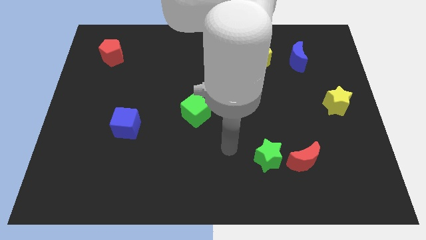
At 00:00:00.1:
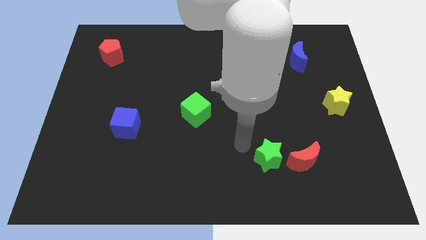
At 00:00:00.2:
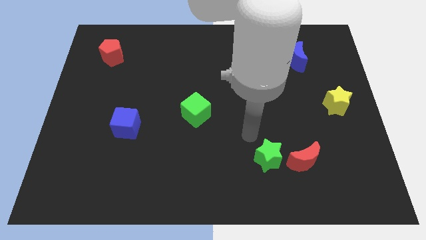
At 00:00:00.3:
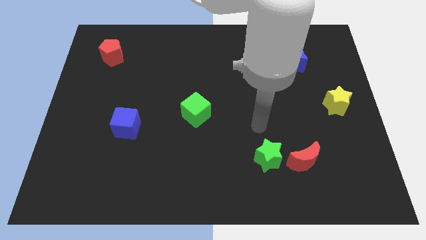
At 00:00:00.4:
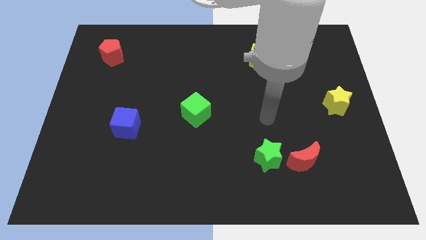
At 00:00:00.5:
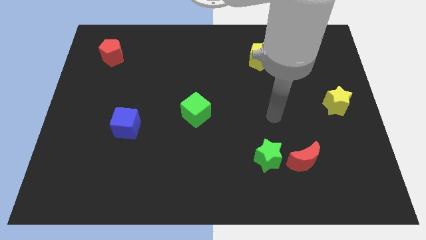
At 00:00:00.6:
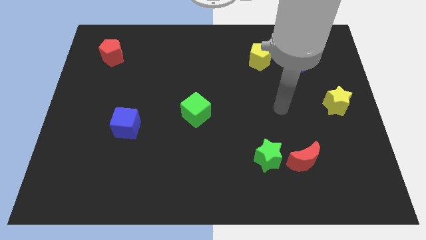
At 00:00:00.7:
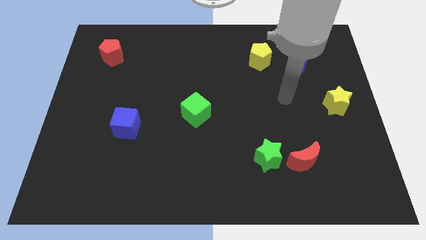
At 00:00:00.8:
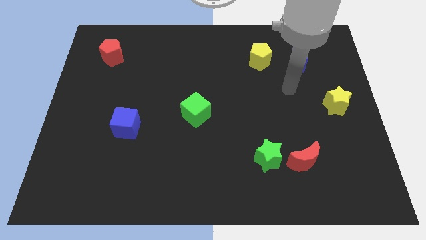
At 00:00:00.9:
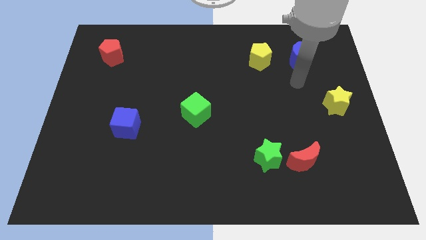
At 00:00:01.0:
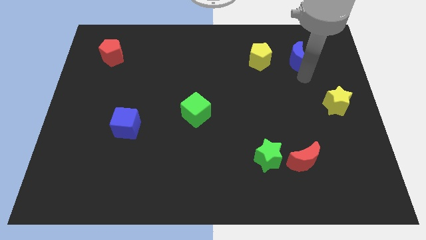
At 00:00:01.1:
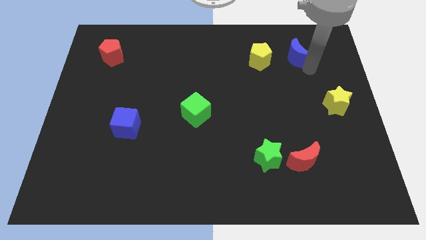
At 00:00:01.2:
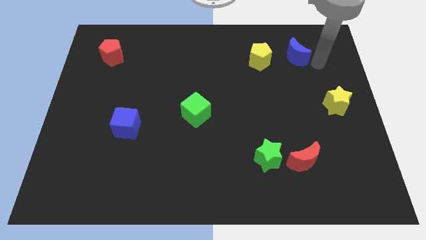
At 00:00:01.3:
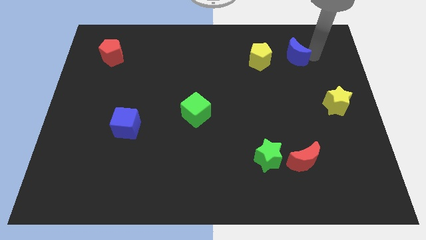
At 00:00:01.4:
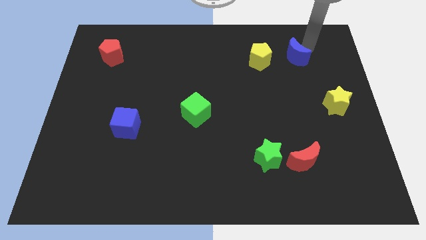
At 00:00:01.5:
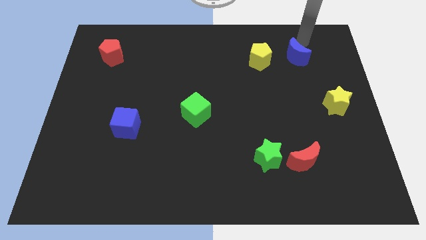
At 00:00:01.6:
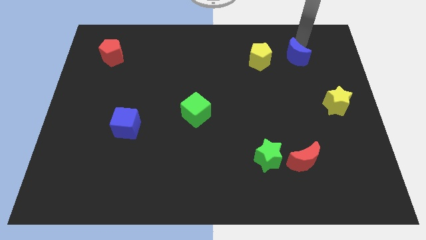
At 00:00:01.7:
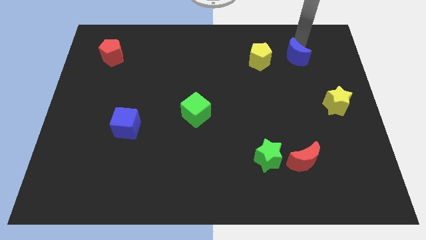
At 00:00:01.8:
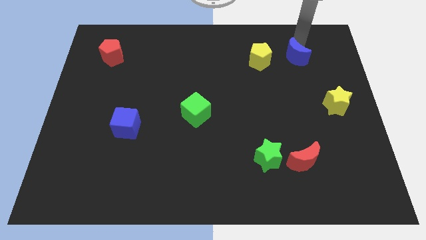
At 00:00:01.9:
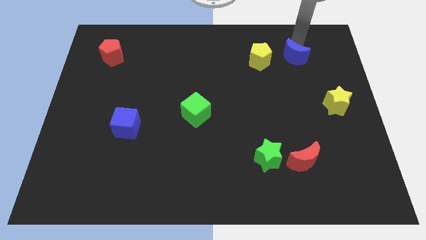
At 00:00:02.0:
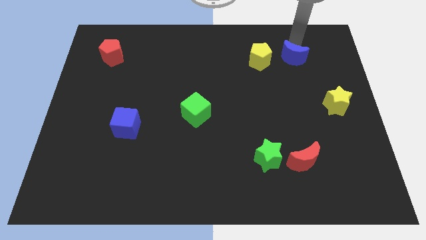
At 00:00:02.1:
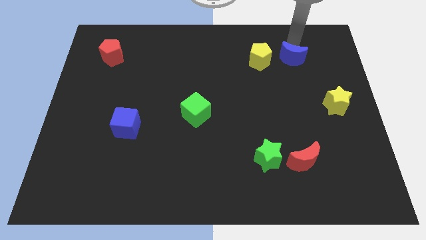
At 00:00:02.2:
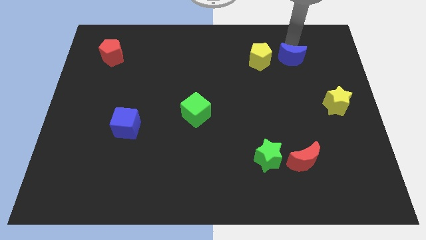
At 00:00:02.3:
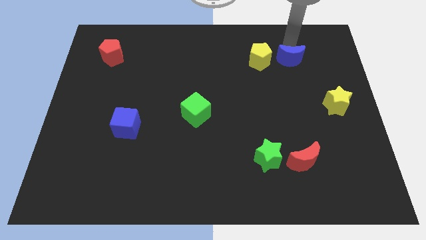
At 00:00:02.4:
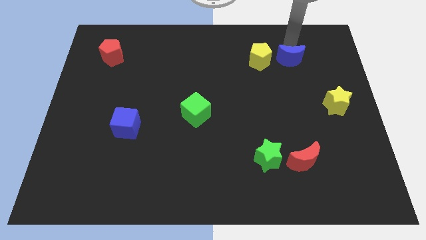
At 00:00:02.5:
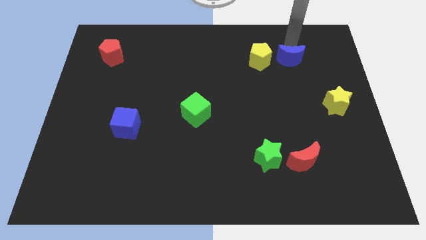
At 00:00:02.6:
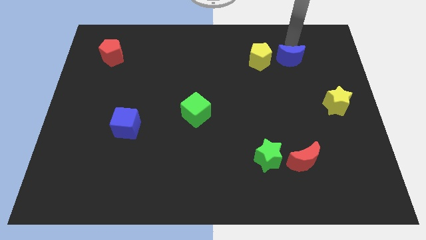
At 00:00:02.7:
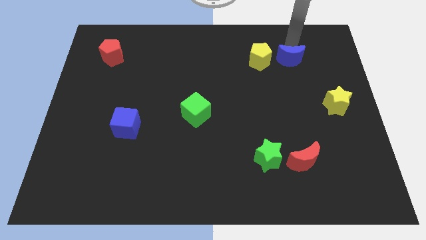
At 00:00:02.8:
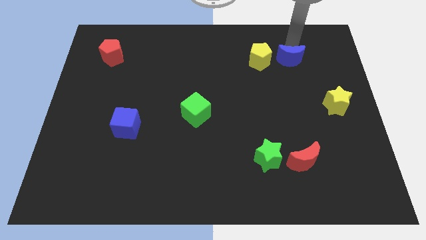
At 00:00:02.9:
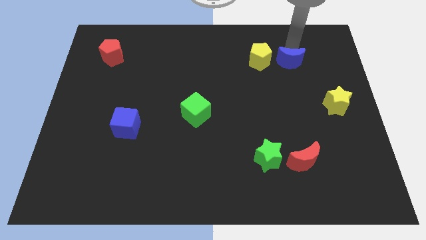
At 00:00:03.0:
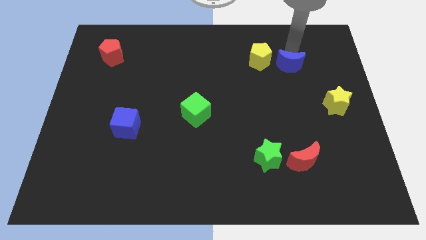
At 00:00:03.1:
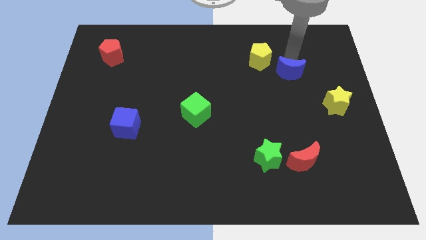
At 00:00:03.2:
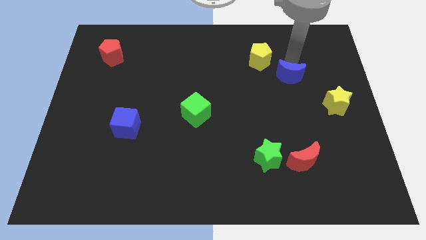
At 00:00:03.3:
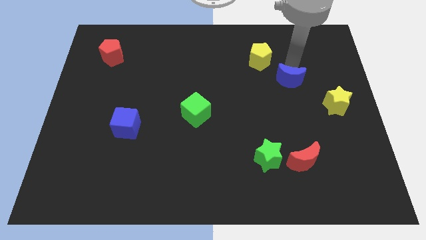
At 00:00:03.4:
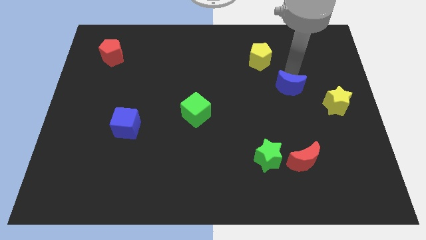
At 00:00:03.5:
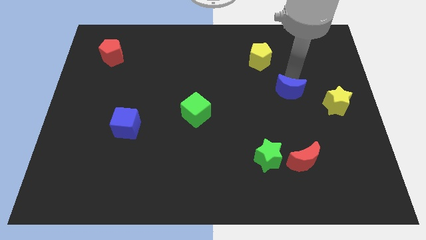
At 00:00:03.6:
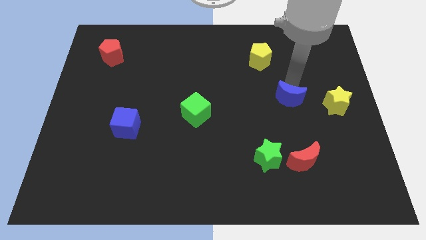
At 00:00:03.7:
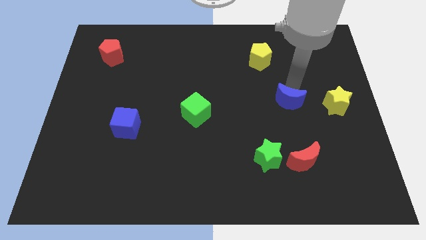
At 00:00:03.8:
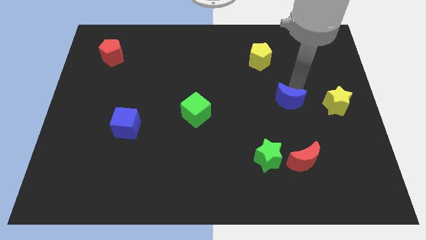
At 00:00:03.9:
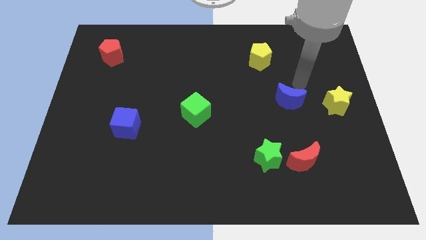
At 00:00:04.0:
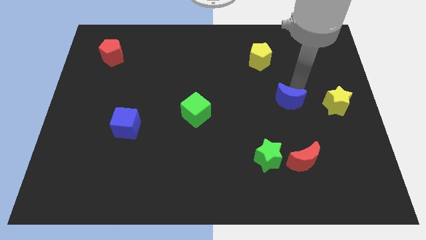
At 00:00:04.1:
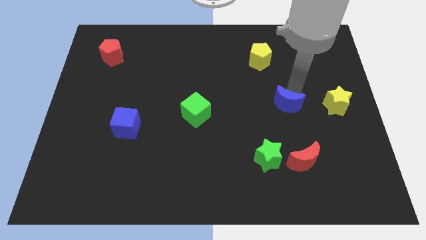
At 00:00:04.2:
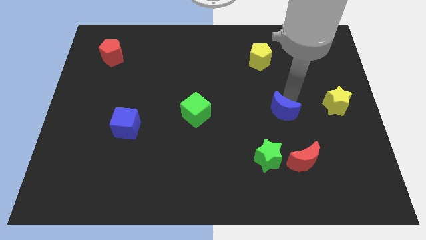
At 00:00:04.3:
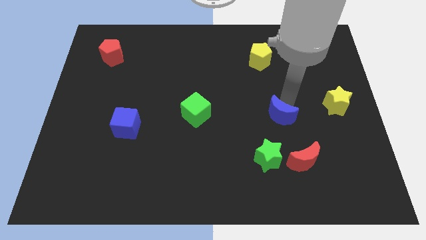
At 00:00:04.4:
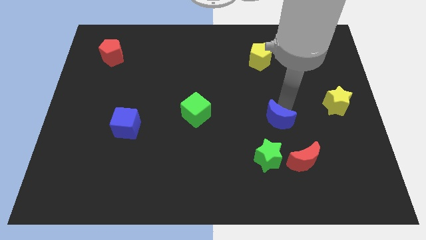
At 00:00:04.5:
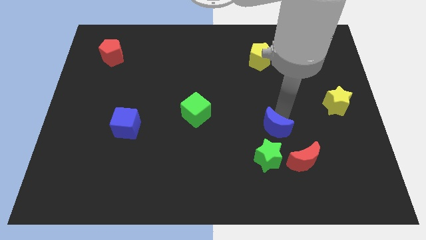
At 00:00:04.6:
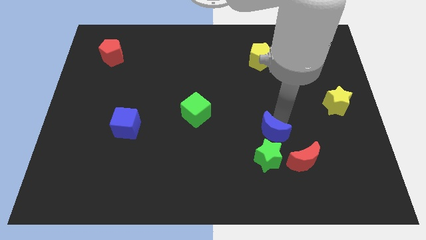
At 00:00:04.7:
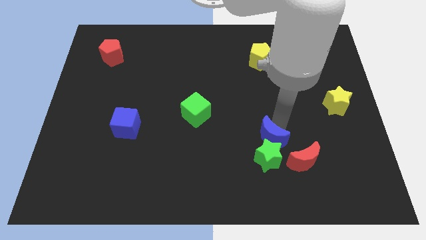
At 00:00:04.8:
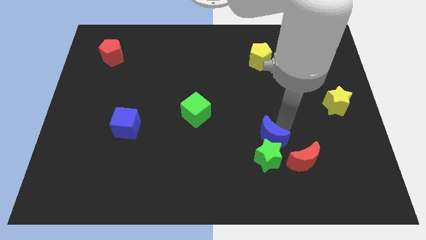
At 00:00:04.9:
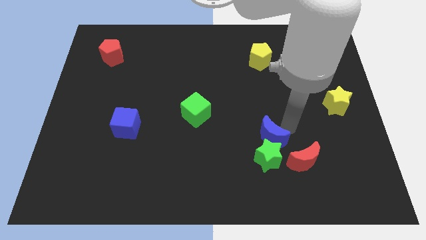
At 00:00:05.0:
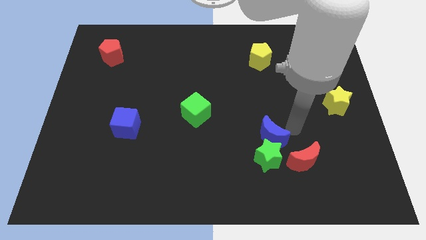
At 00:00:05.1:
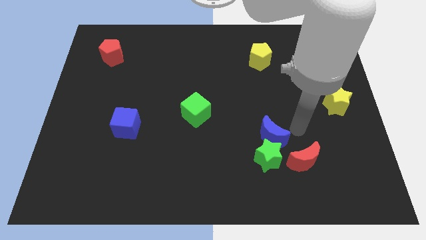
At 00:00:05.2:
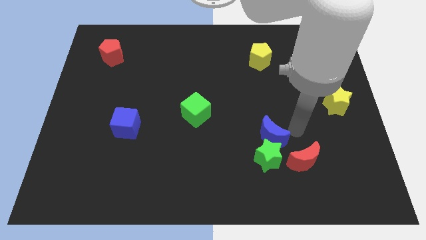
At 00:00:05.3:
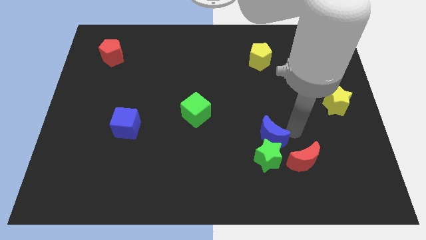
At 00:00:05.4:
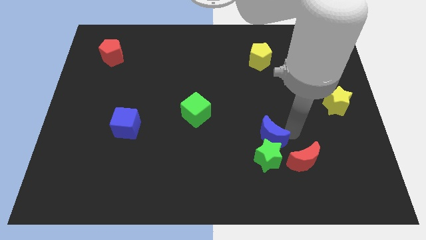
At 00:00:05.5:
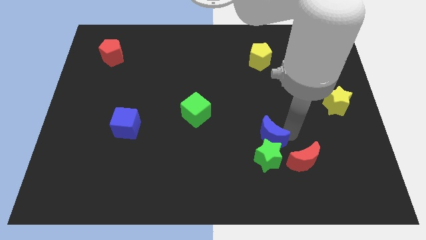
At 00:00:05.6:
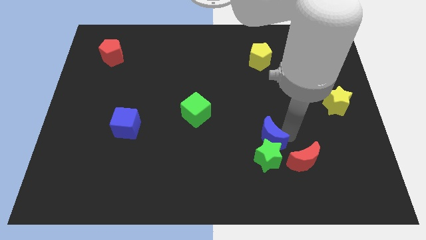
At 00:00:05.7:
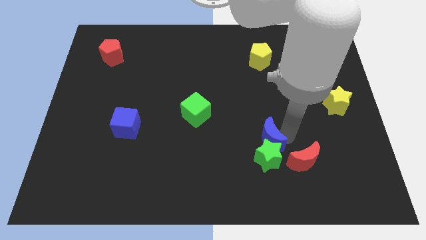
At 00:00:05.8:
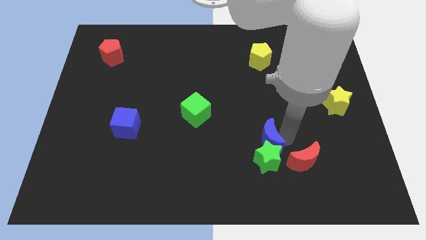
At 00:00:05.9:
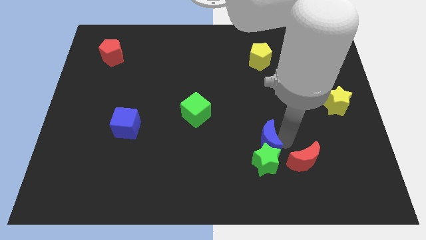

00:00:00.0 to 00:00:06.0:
move the blue moon just left of the red moon
